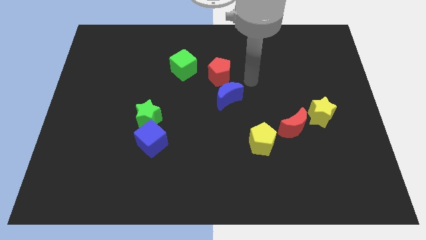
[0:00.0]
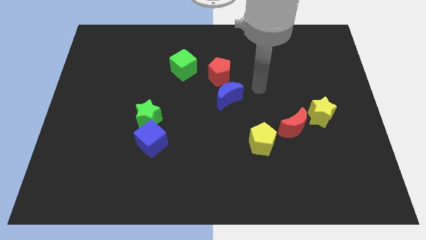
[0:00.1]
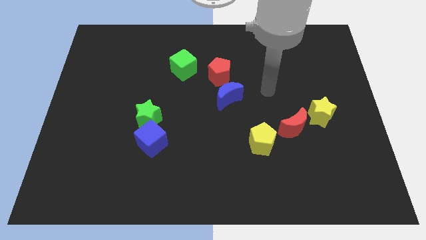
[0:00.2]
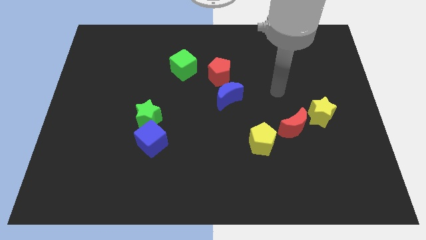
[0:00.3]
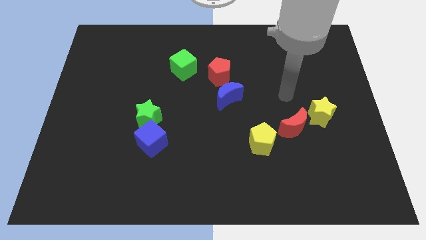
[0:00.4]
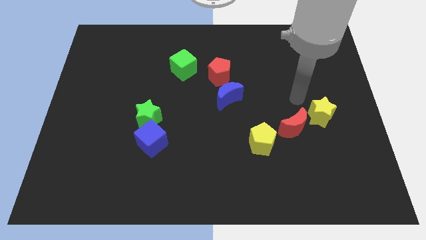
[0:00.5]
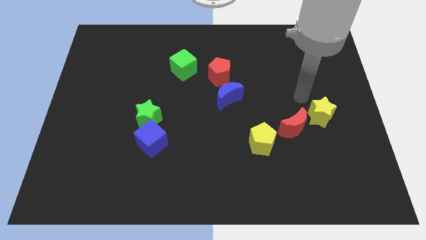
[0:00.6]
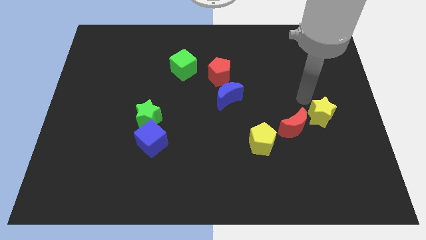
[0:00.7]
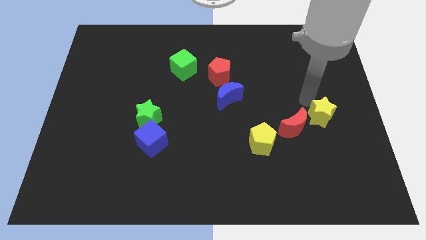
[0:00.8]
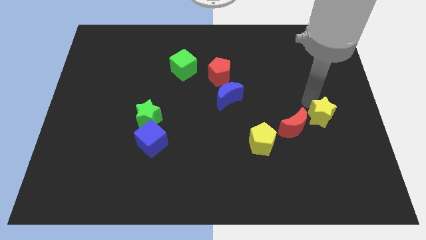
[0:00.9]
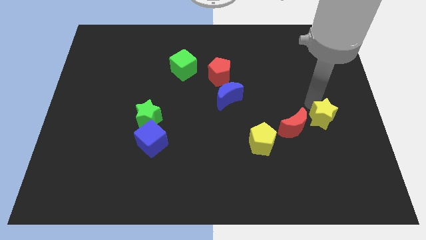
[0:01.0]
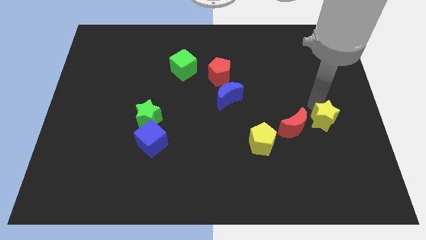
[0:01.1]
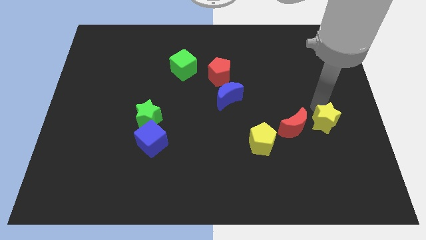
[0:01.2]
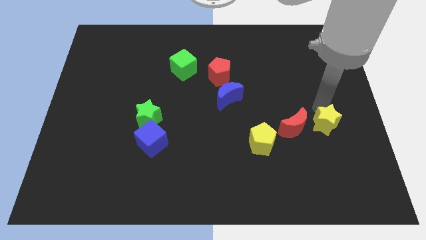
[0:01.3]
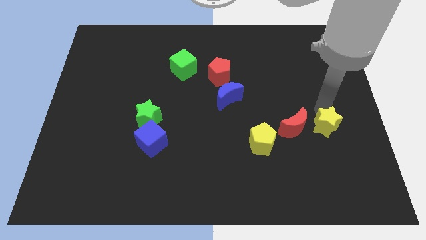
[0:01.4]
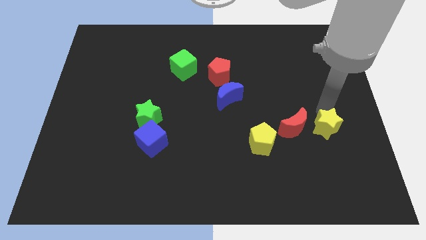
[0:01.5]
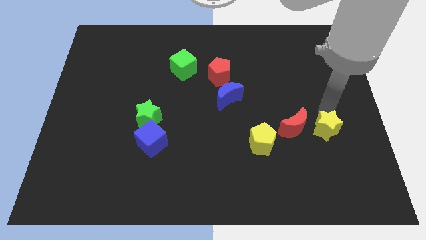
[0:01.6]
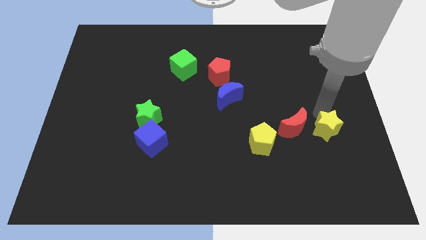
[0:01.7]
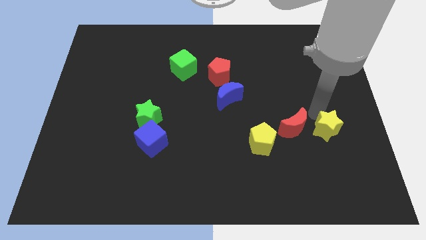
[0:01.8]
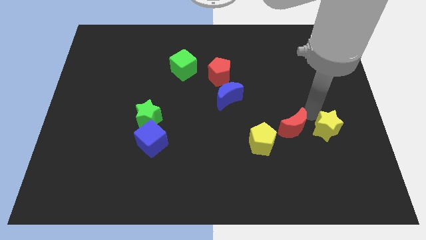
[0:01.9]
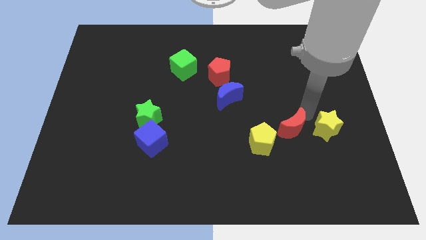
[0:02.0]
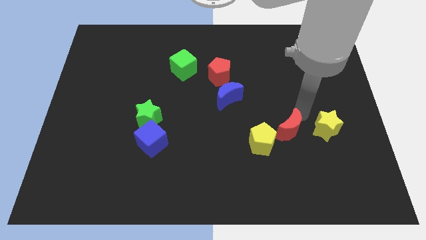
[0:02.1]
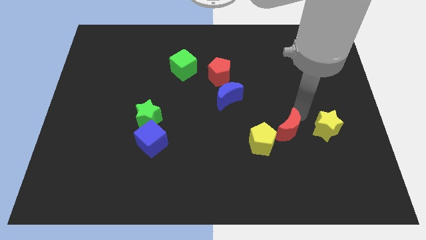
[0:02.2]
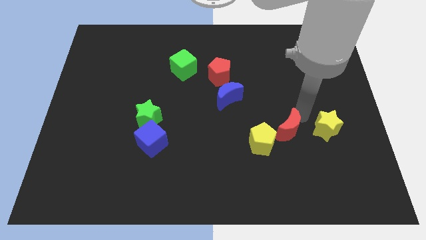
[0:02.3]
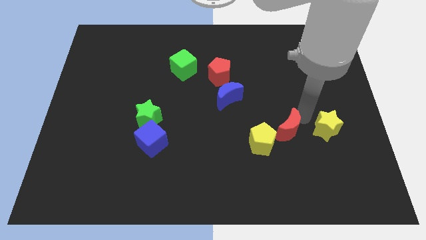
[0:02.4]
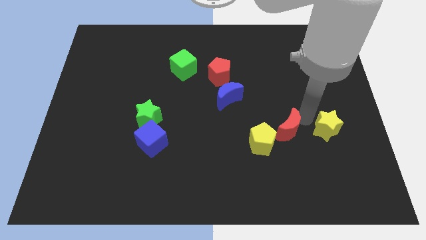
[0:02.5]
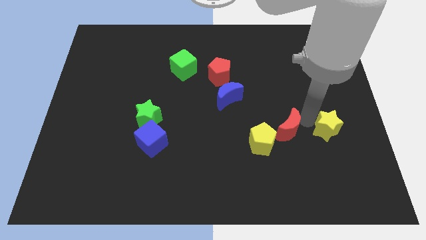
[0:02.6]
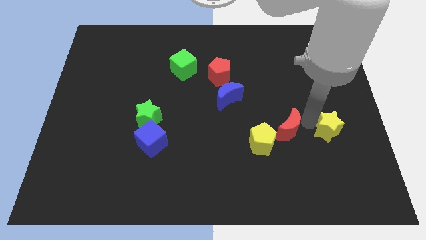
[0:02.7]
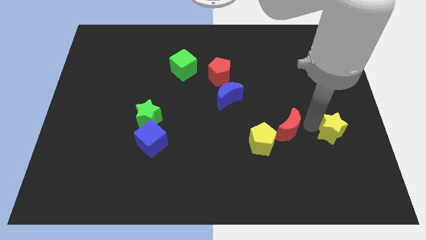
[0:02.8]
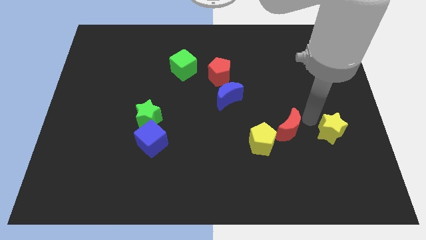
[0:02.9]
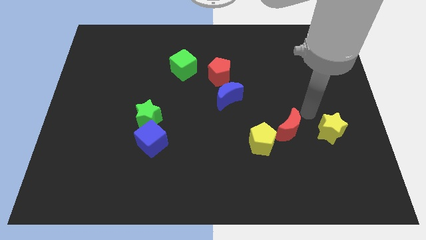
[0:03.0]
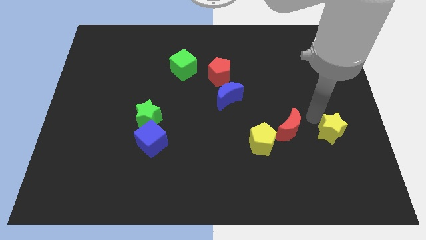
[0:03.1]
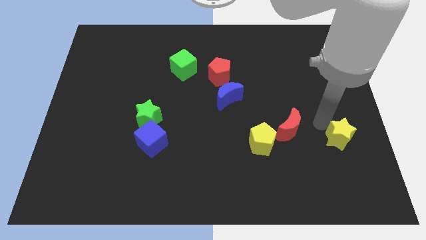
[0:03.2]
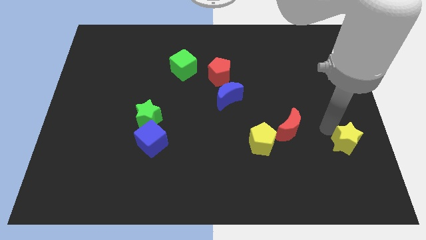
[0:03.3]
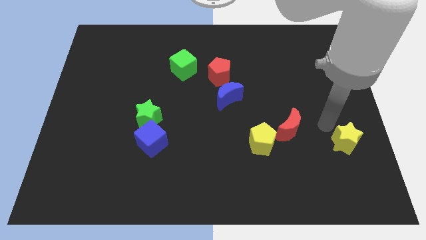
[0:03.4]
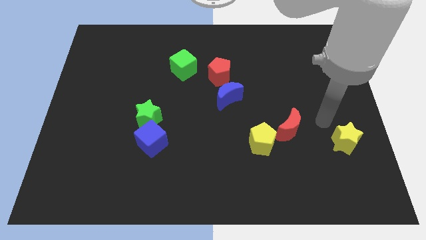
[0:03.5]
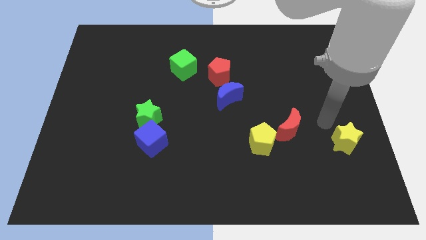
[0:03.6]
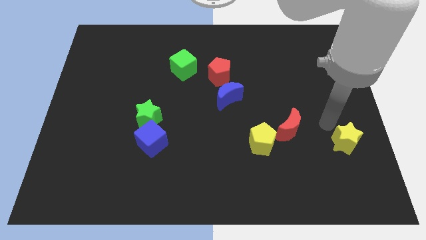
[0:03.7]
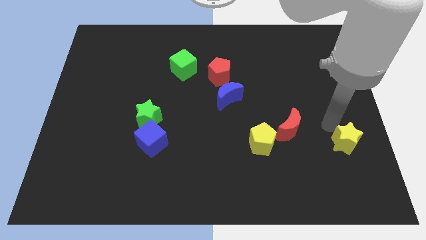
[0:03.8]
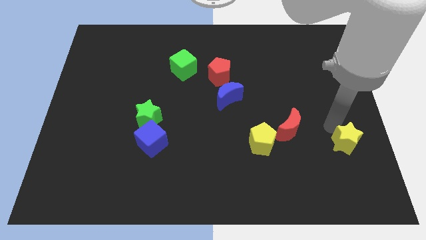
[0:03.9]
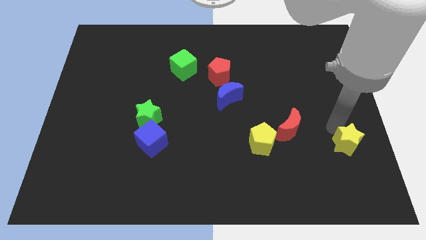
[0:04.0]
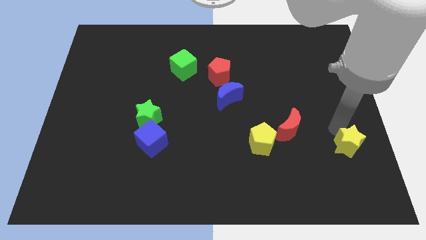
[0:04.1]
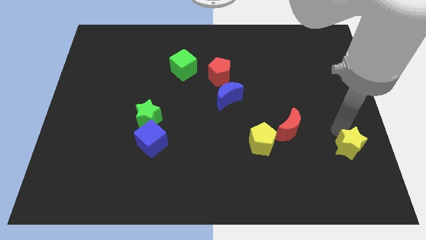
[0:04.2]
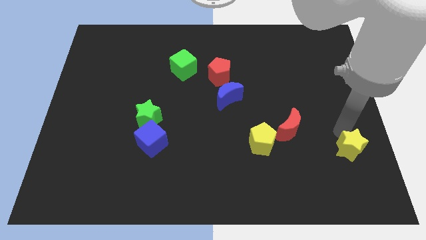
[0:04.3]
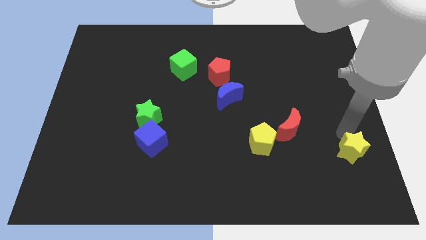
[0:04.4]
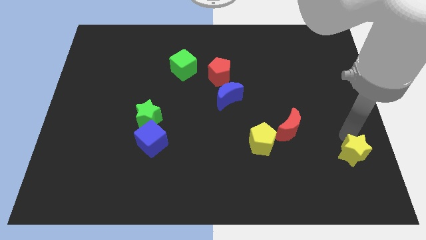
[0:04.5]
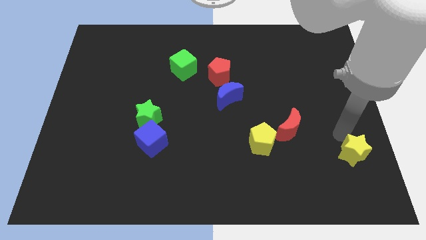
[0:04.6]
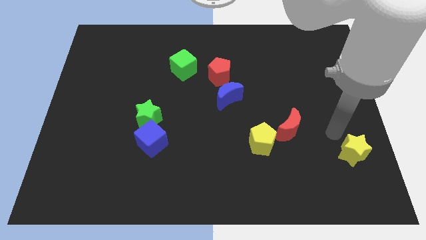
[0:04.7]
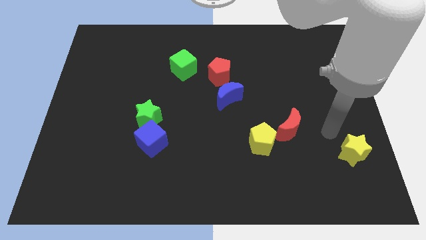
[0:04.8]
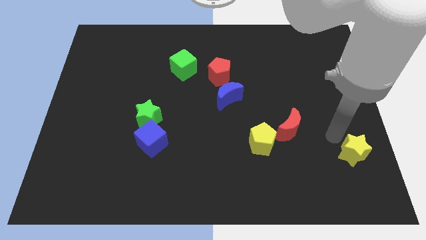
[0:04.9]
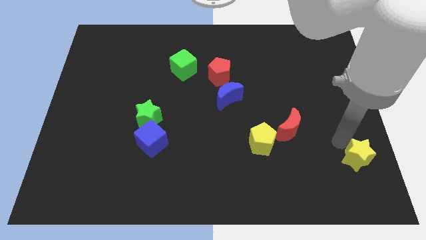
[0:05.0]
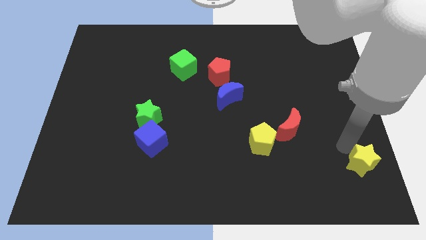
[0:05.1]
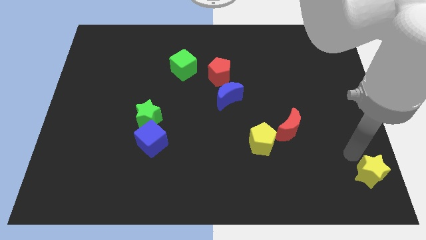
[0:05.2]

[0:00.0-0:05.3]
push the yellow star to the bottom right corner
